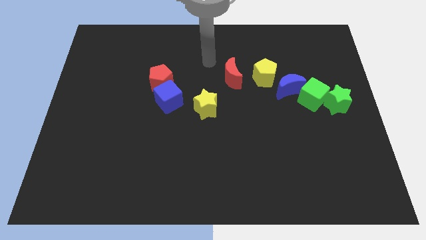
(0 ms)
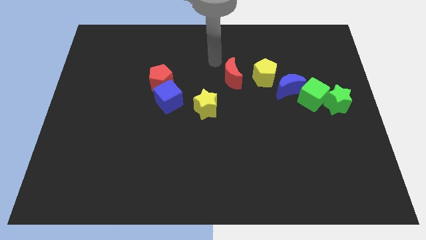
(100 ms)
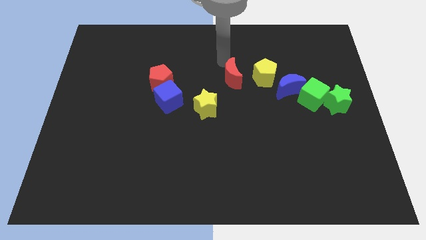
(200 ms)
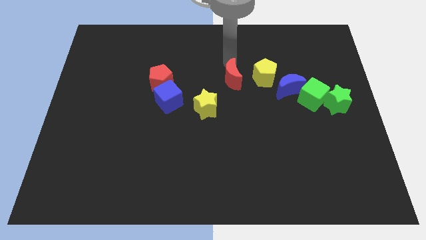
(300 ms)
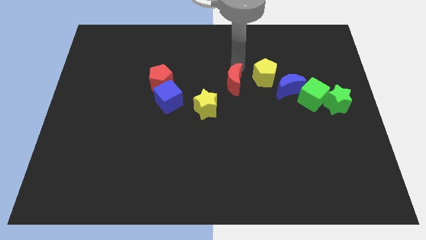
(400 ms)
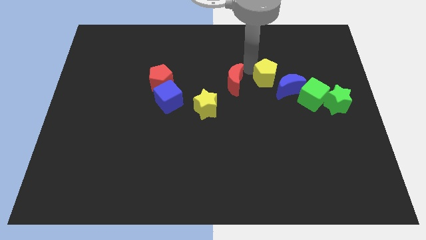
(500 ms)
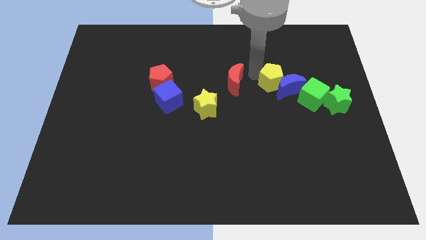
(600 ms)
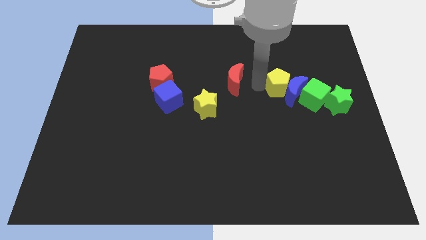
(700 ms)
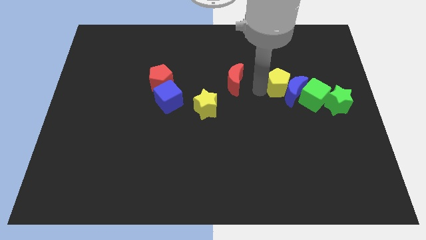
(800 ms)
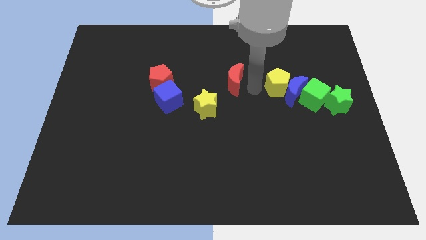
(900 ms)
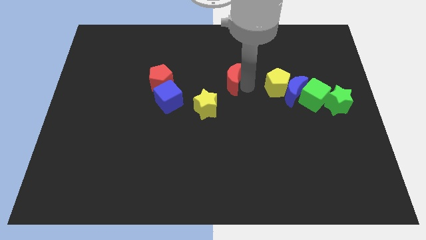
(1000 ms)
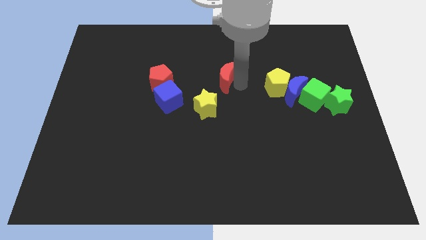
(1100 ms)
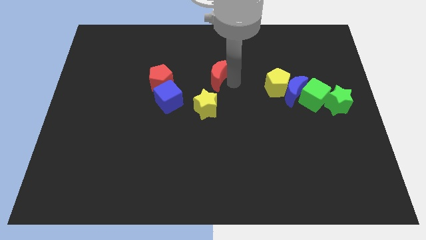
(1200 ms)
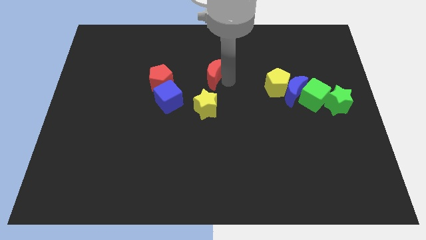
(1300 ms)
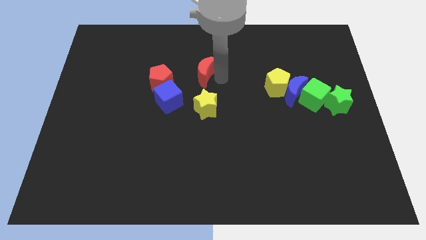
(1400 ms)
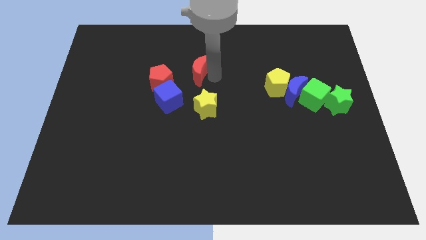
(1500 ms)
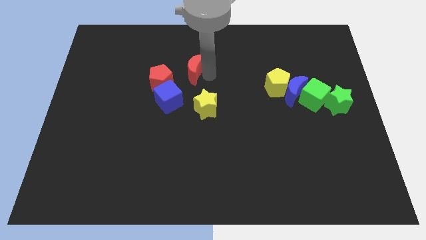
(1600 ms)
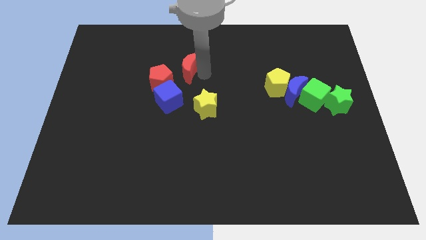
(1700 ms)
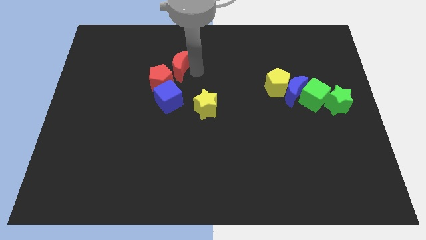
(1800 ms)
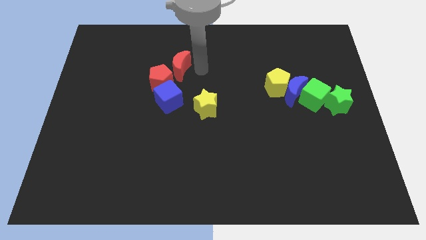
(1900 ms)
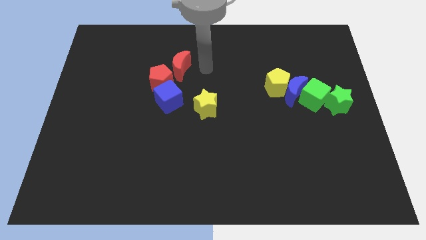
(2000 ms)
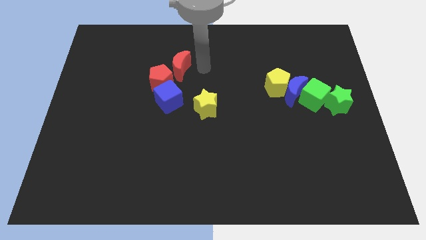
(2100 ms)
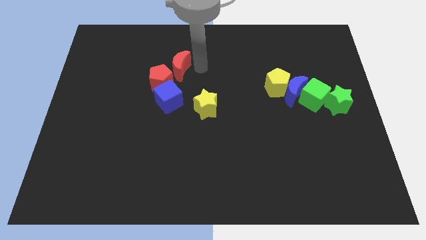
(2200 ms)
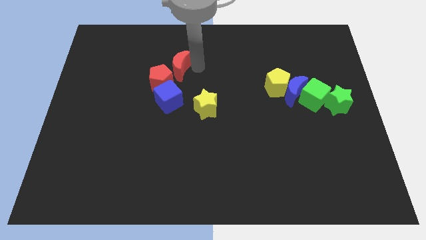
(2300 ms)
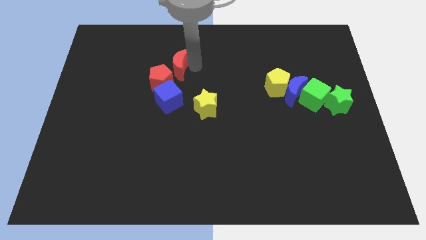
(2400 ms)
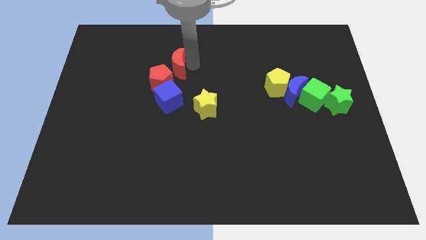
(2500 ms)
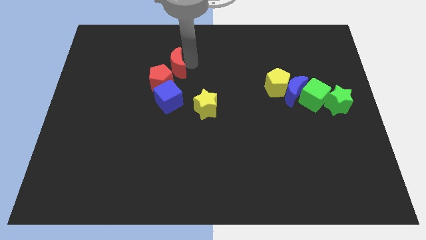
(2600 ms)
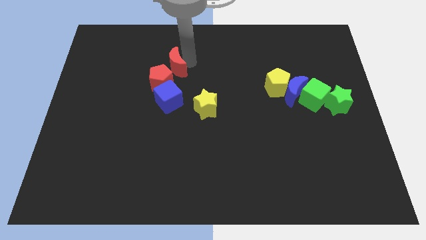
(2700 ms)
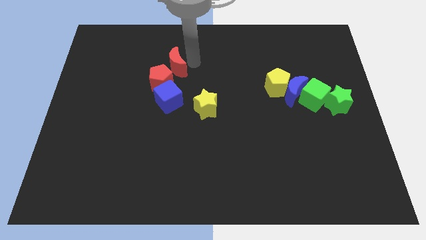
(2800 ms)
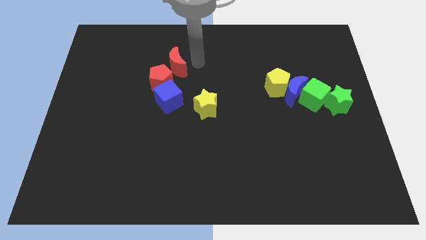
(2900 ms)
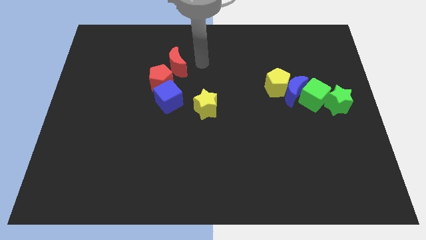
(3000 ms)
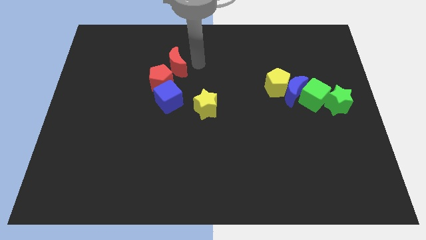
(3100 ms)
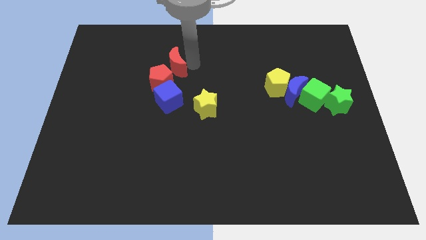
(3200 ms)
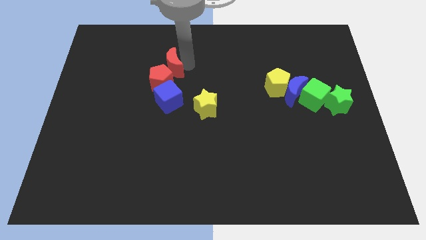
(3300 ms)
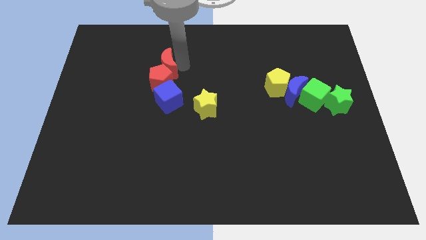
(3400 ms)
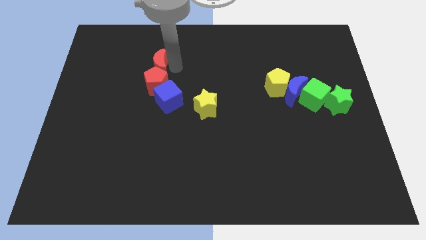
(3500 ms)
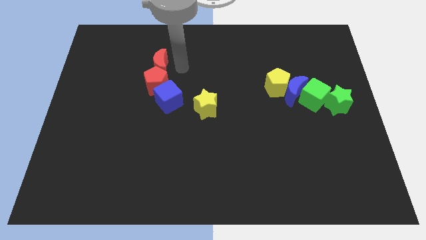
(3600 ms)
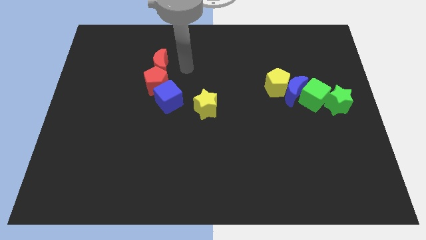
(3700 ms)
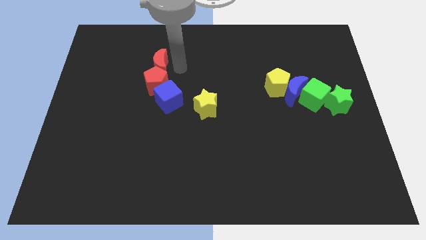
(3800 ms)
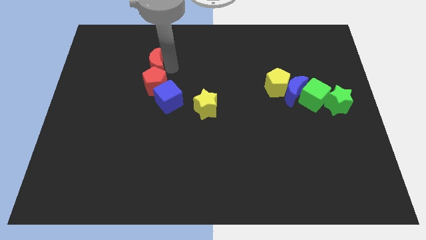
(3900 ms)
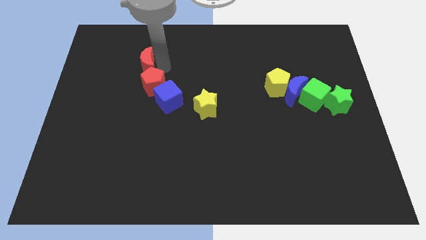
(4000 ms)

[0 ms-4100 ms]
push the red moon to the left

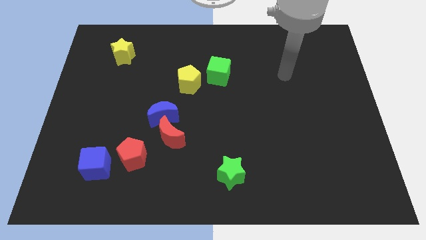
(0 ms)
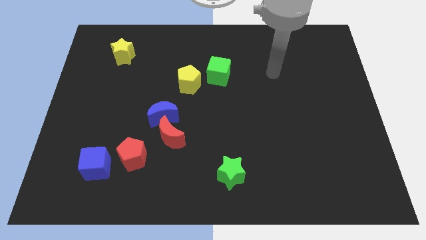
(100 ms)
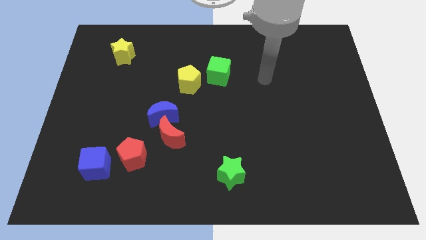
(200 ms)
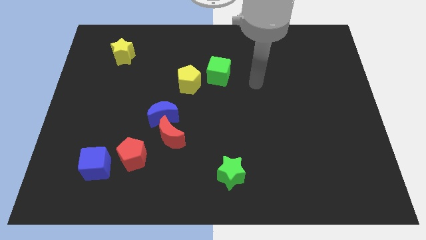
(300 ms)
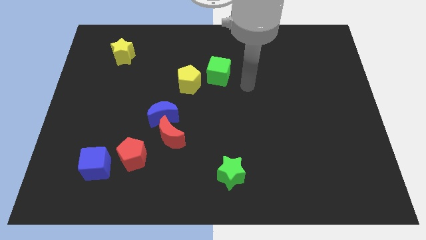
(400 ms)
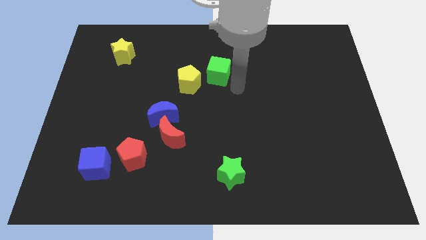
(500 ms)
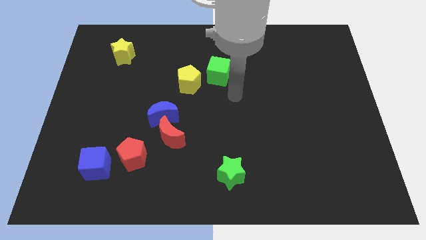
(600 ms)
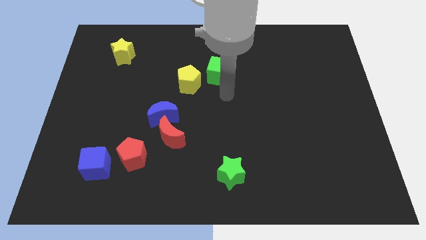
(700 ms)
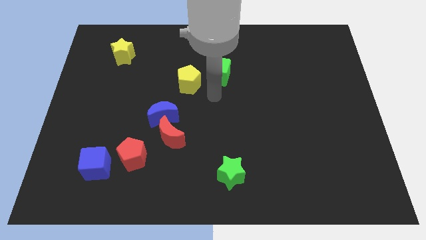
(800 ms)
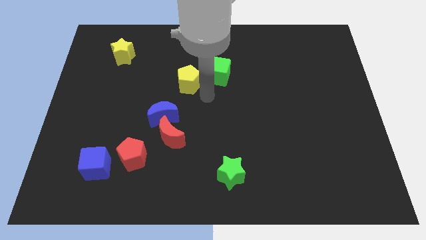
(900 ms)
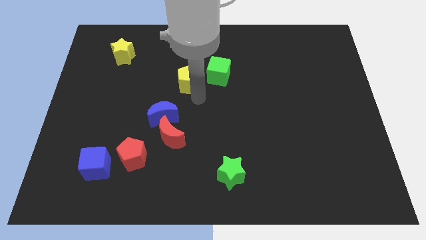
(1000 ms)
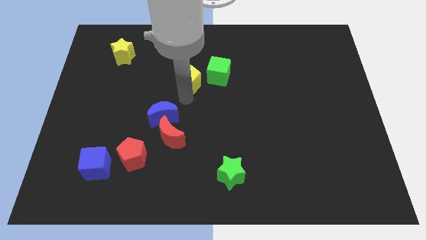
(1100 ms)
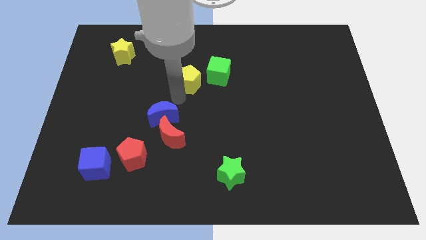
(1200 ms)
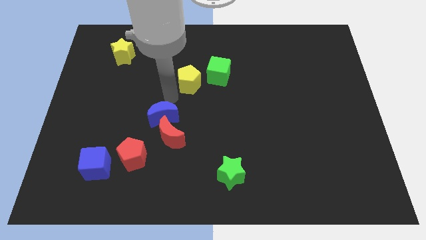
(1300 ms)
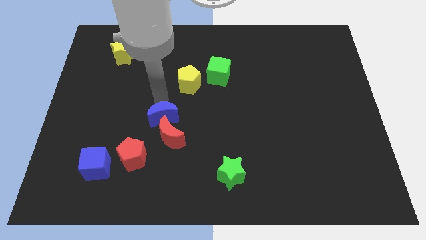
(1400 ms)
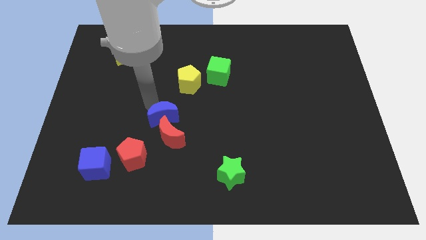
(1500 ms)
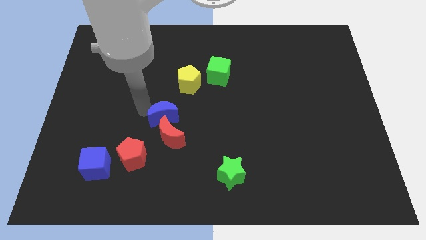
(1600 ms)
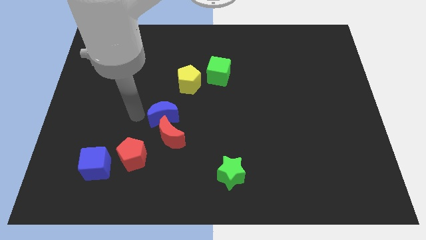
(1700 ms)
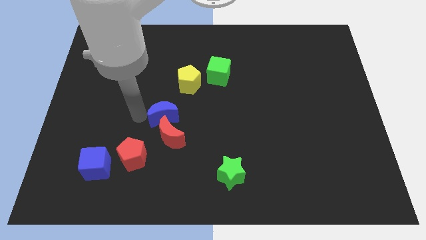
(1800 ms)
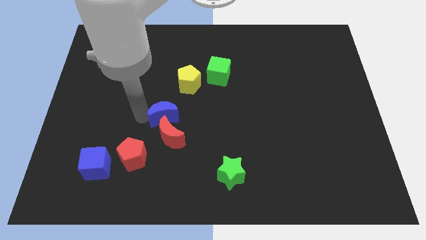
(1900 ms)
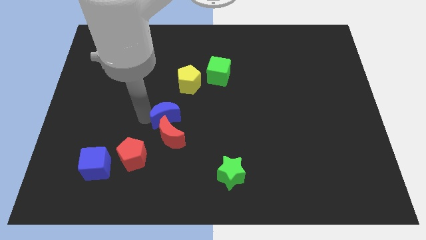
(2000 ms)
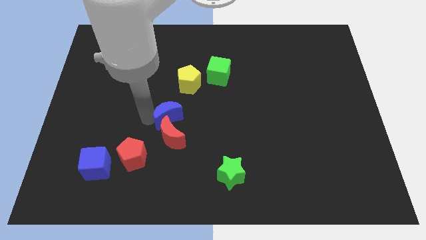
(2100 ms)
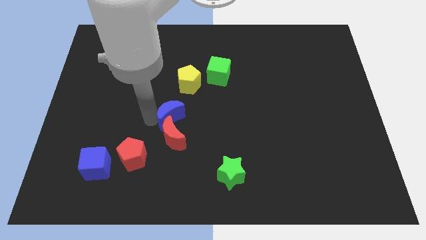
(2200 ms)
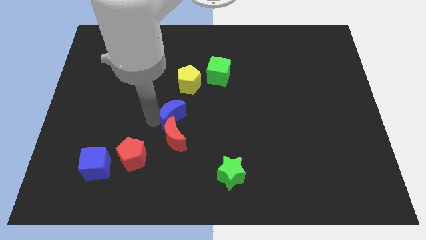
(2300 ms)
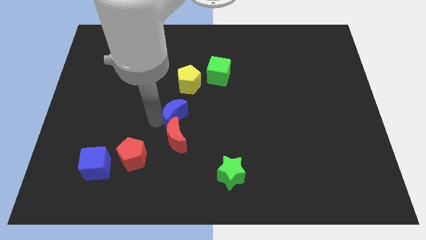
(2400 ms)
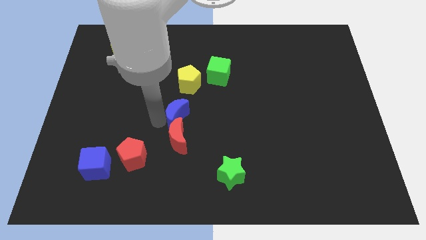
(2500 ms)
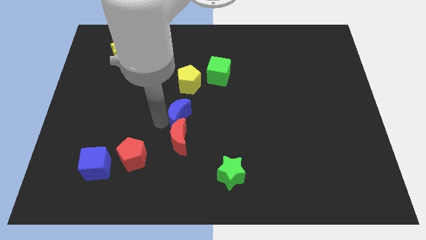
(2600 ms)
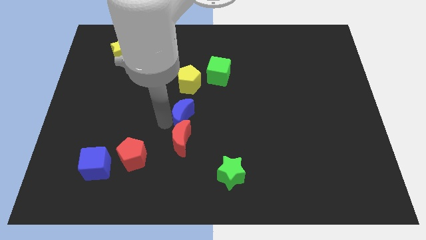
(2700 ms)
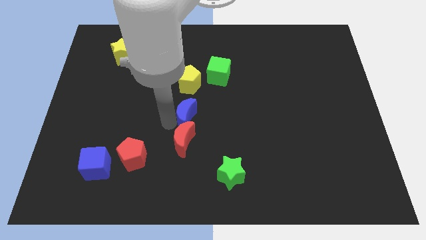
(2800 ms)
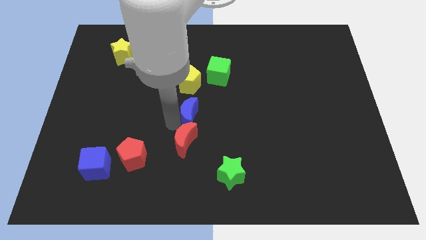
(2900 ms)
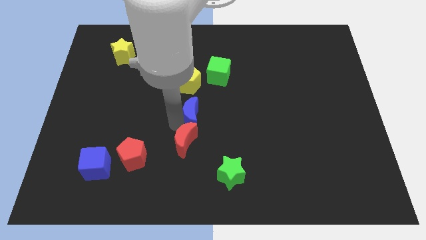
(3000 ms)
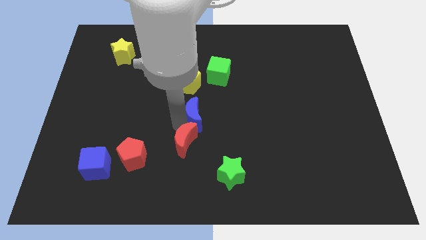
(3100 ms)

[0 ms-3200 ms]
slide the blue moon right a little

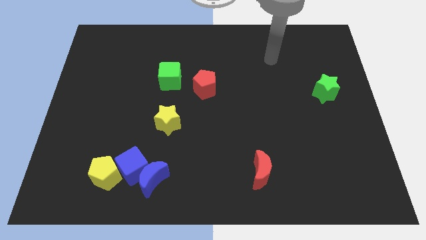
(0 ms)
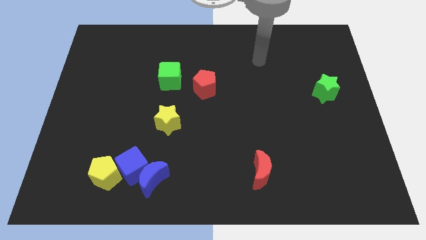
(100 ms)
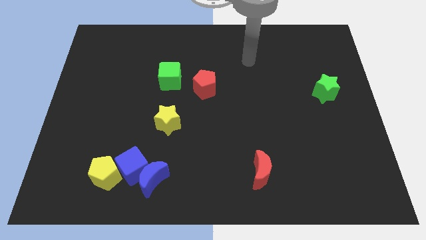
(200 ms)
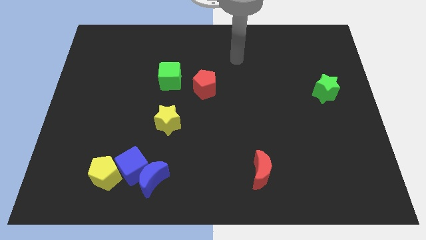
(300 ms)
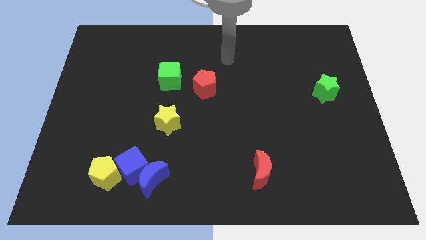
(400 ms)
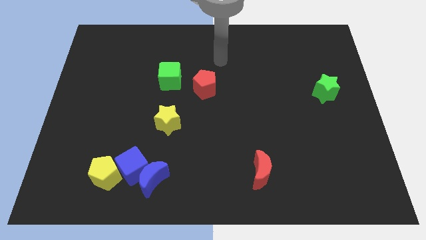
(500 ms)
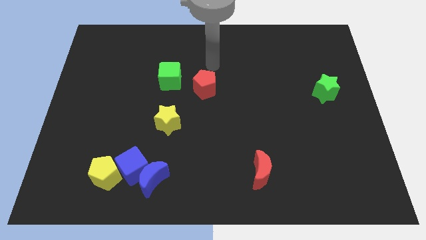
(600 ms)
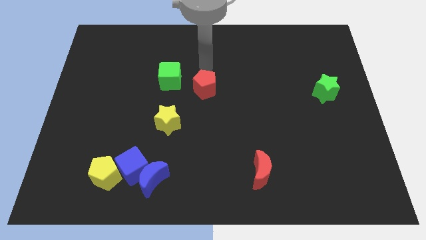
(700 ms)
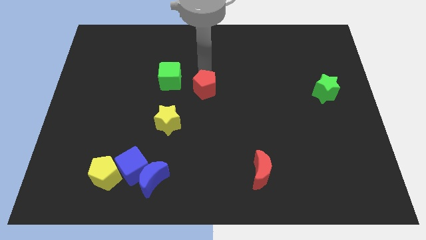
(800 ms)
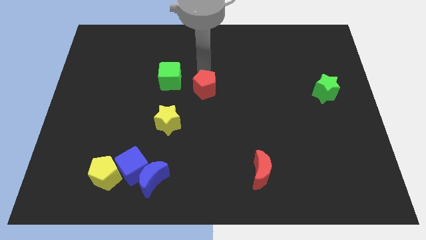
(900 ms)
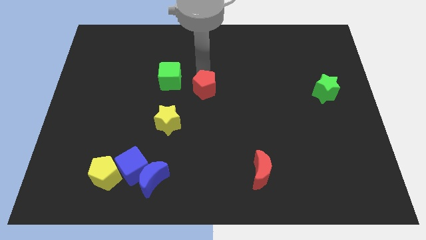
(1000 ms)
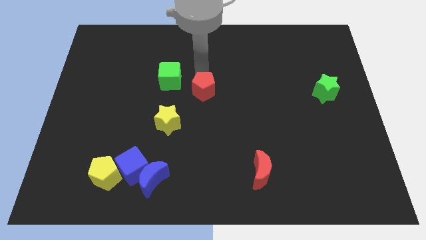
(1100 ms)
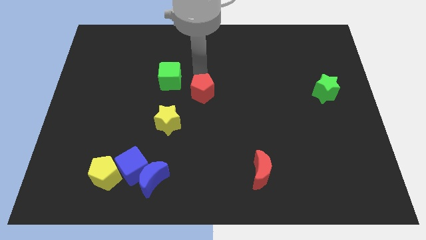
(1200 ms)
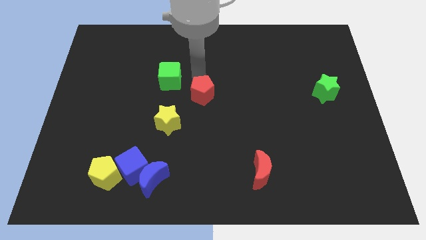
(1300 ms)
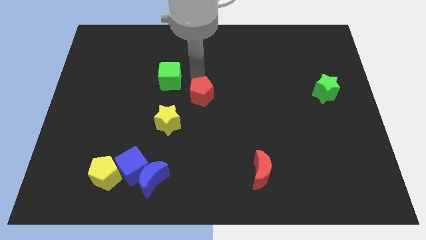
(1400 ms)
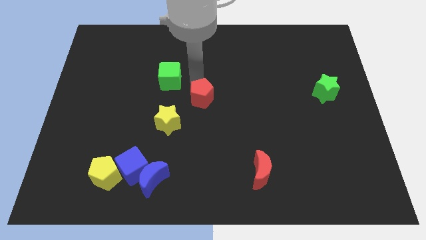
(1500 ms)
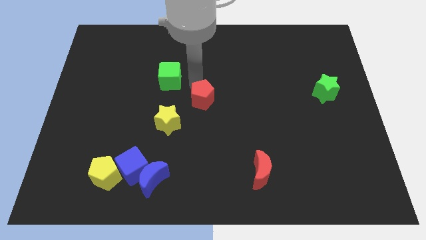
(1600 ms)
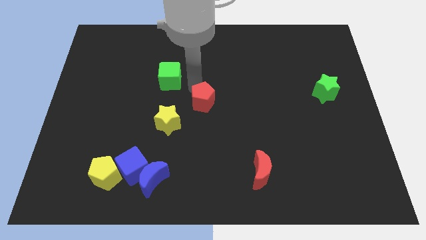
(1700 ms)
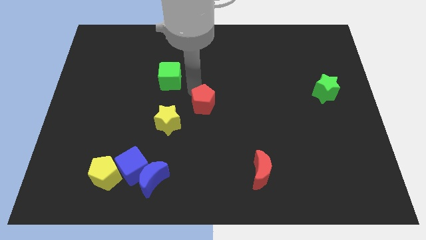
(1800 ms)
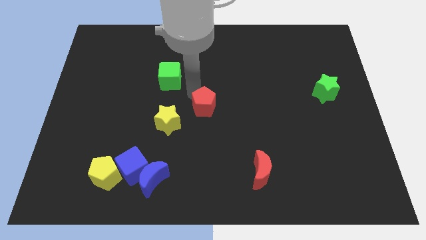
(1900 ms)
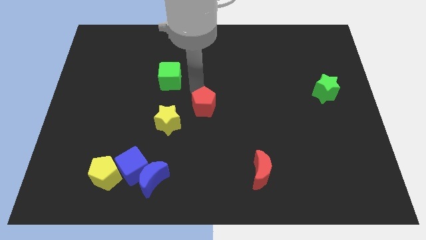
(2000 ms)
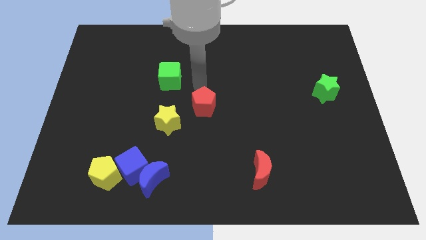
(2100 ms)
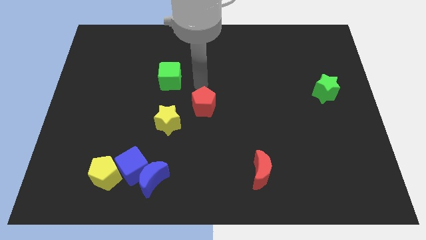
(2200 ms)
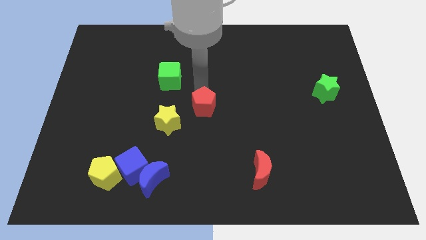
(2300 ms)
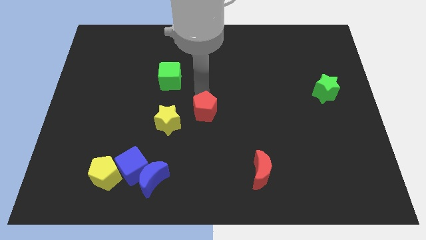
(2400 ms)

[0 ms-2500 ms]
slightly slide the red pentagon downwards
